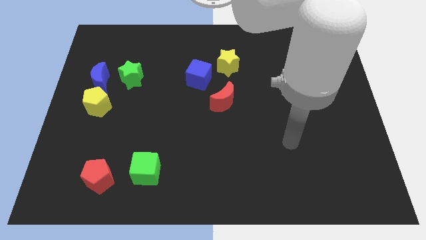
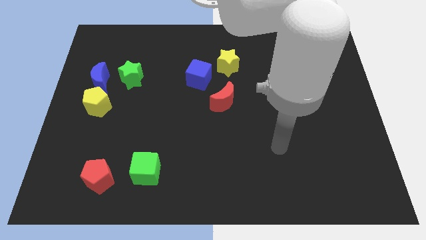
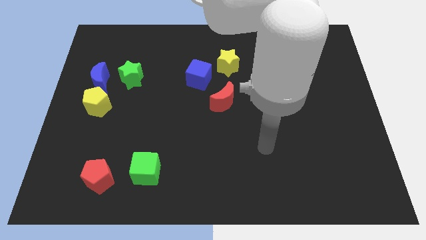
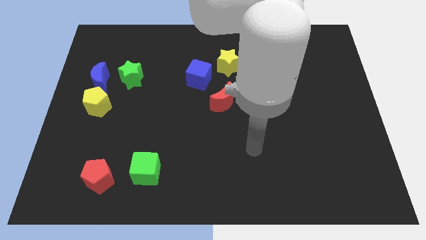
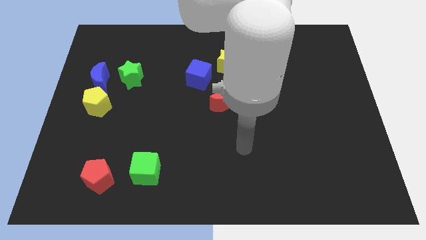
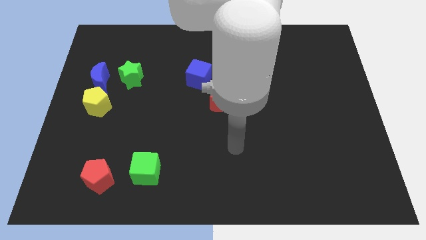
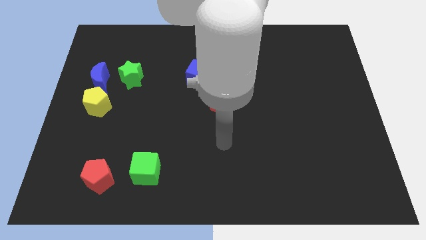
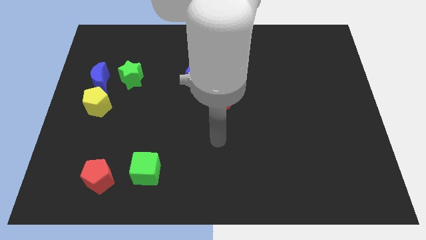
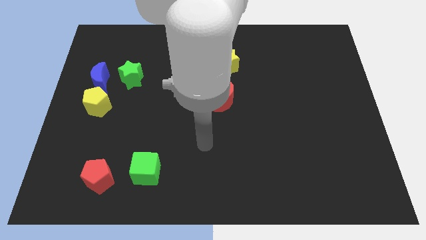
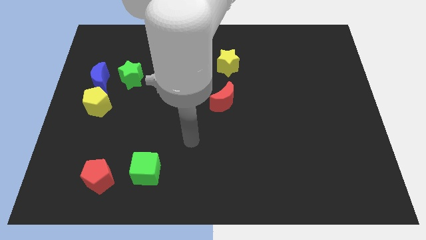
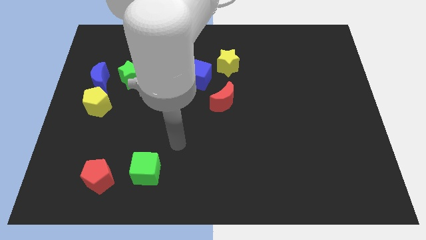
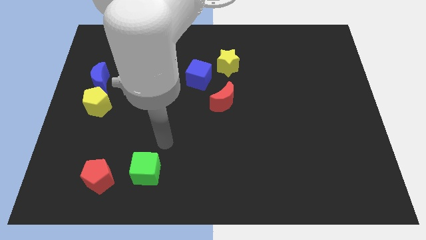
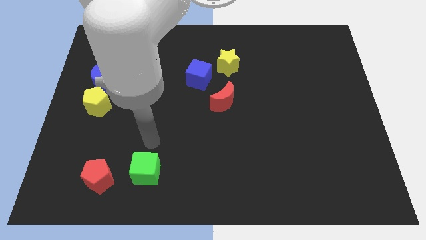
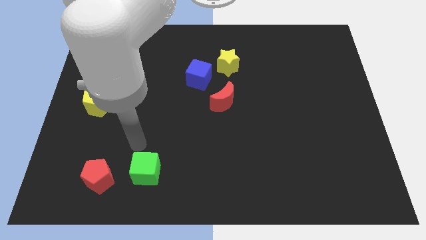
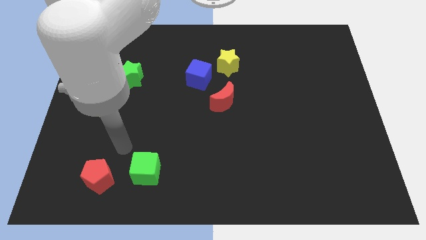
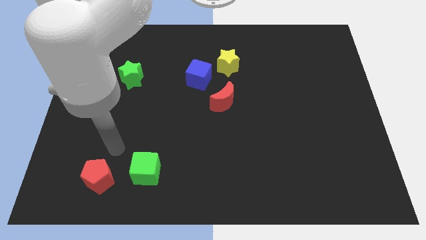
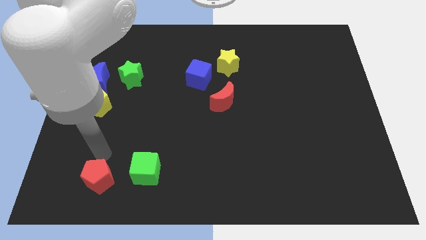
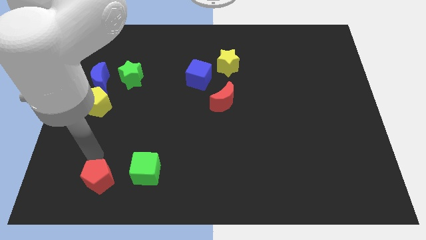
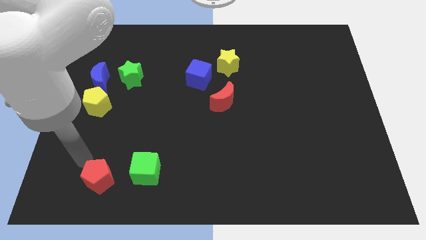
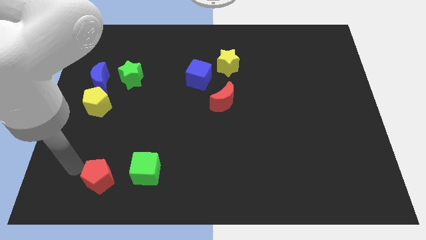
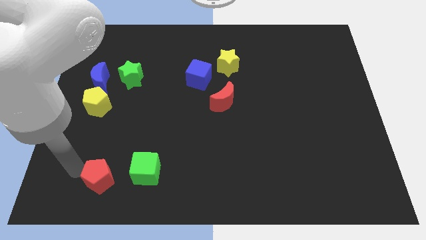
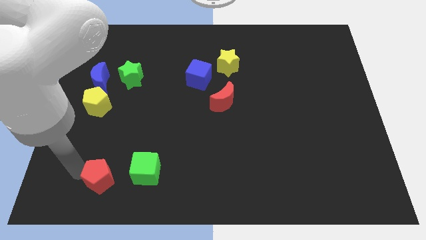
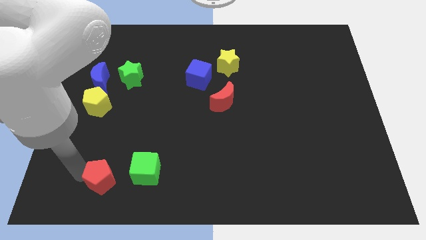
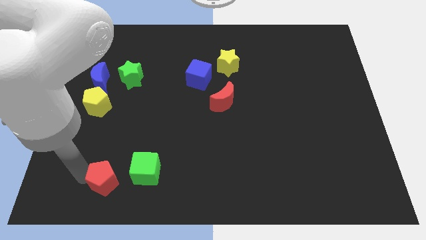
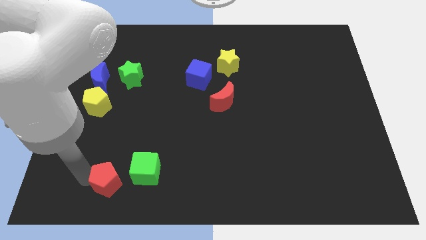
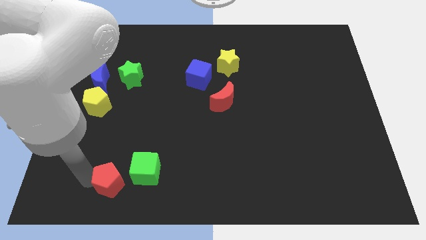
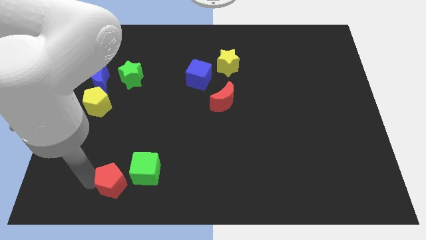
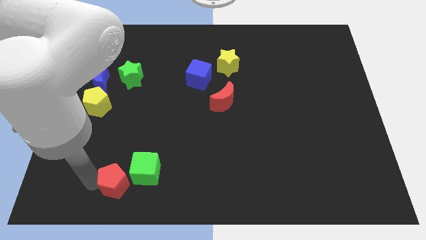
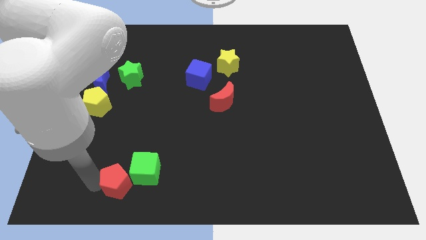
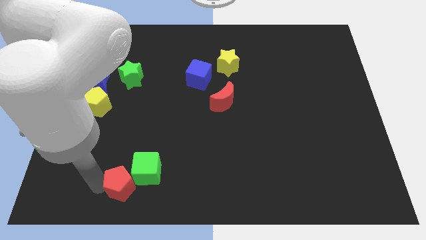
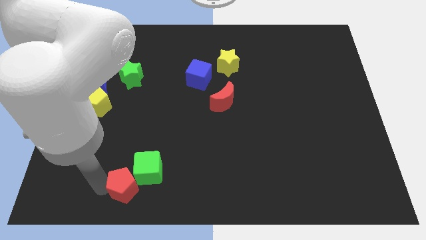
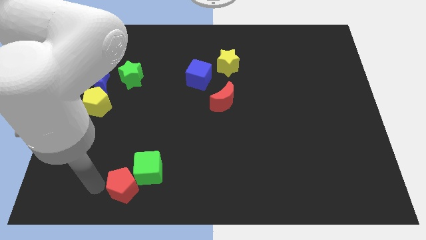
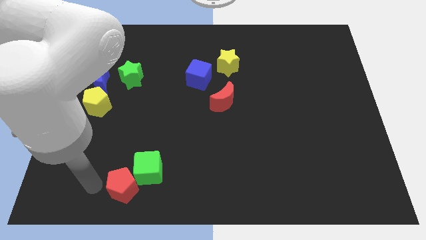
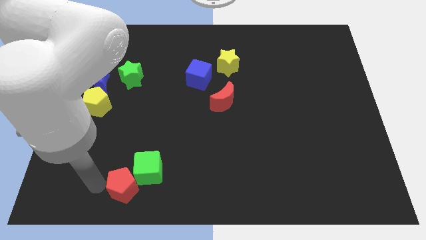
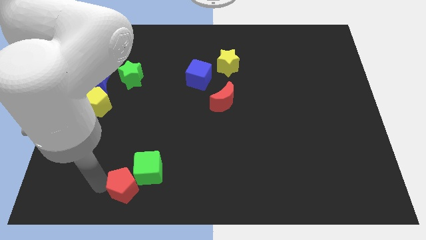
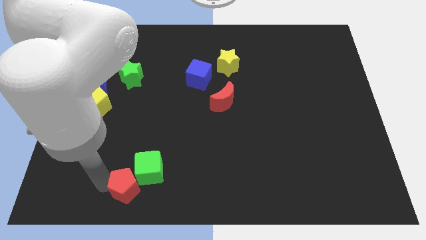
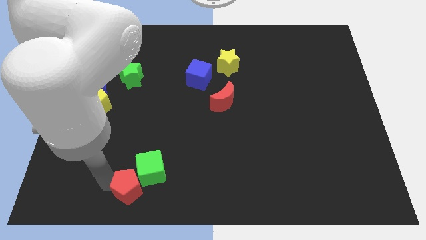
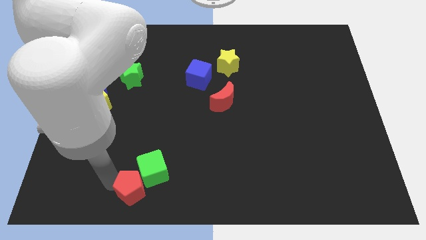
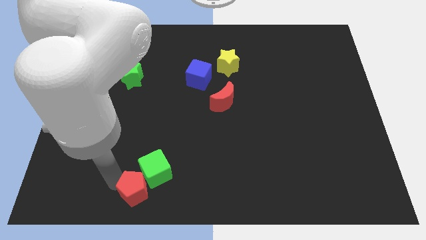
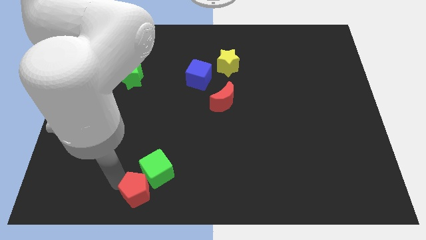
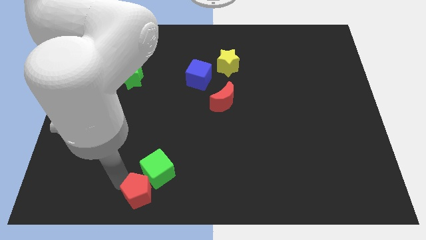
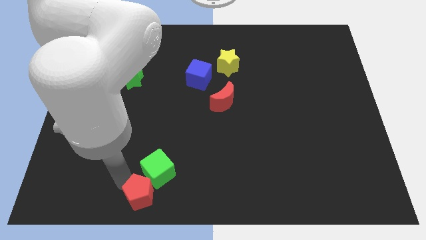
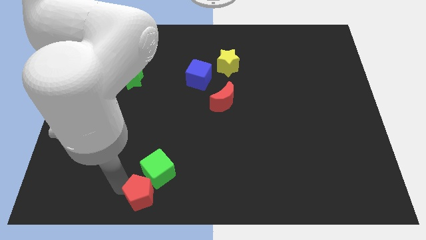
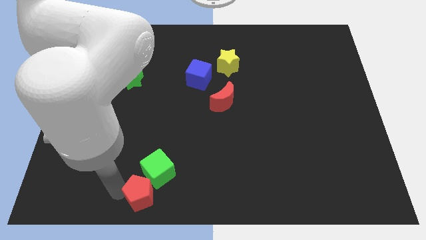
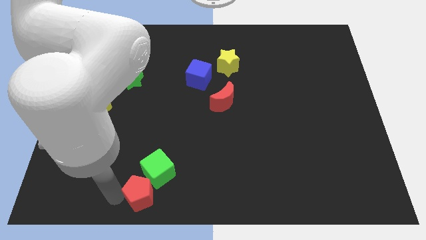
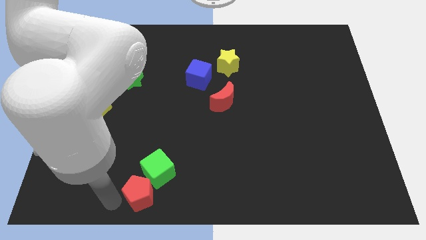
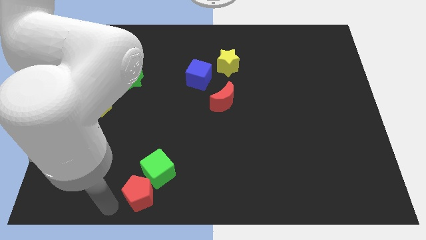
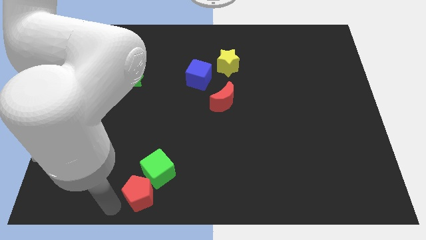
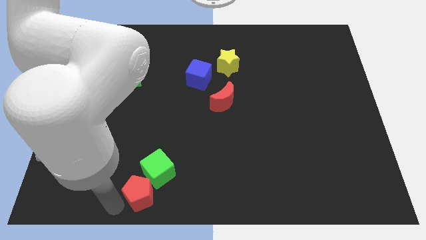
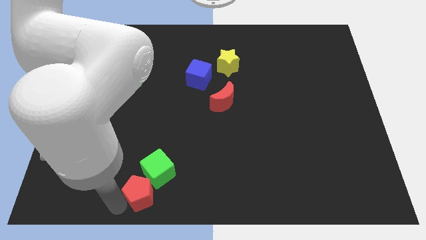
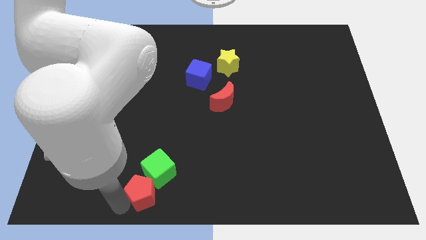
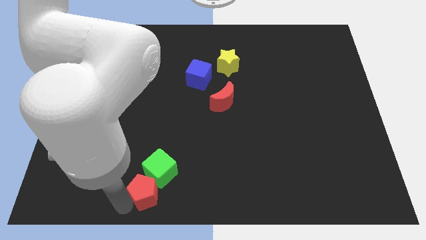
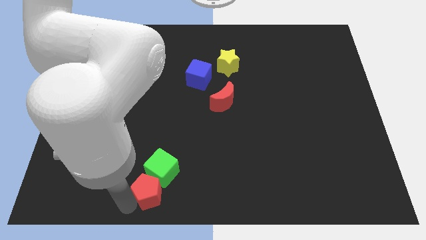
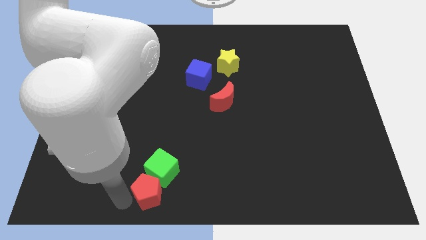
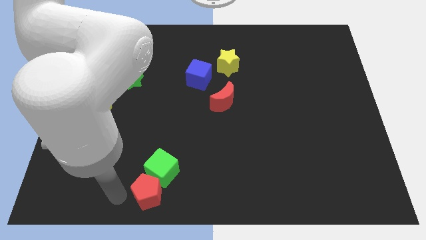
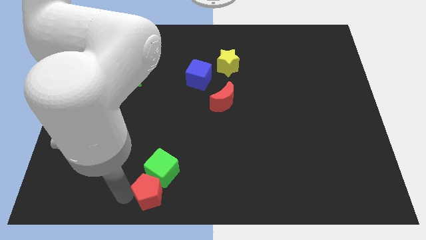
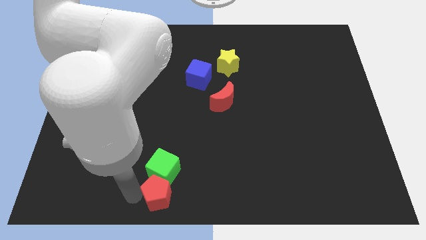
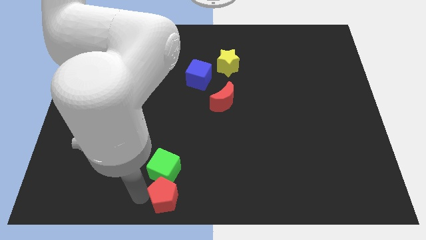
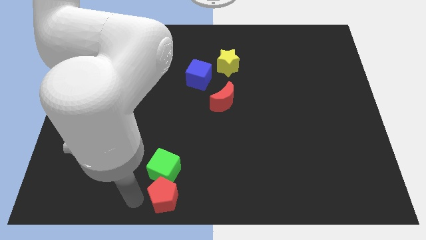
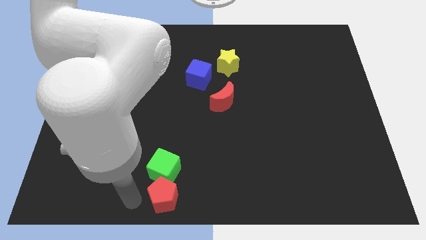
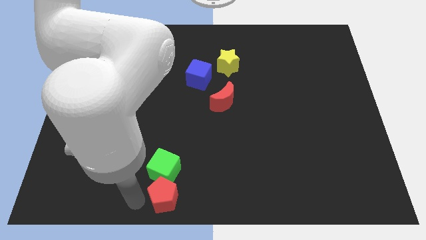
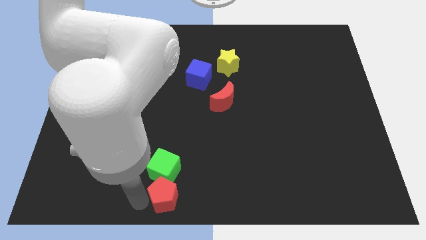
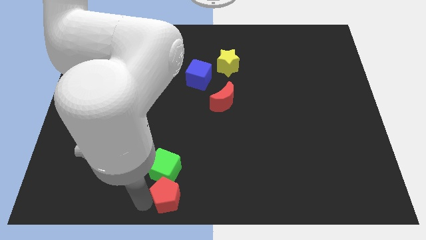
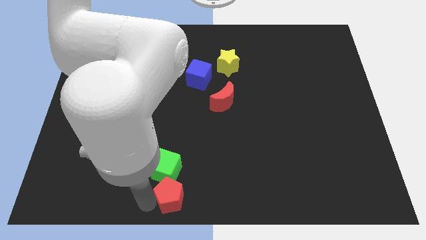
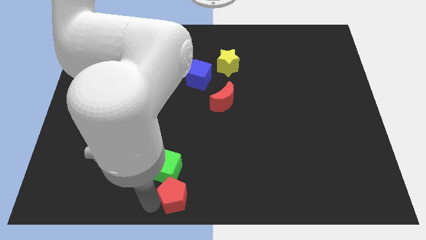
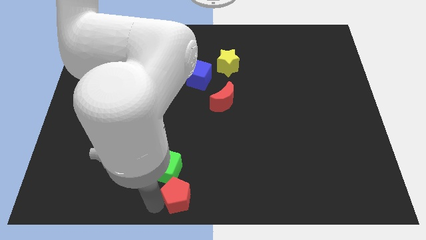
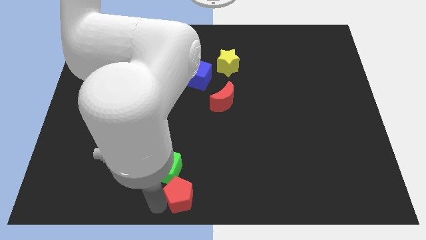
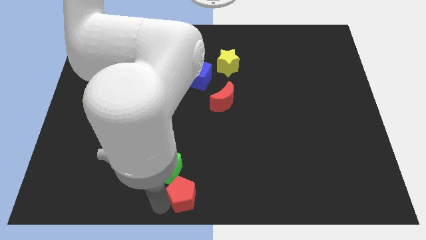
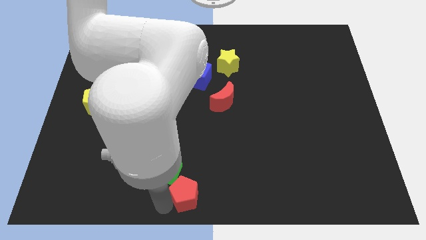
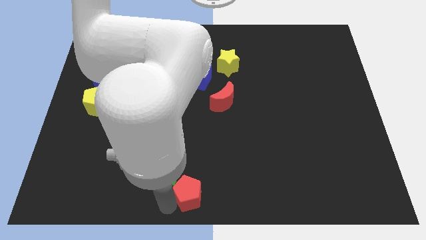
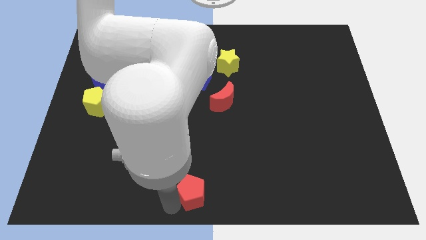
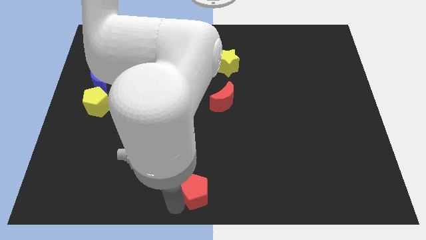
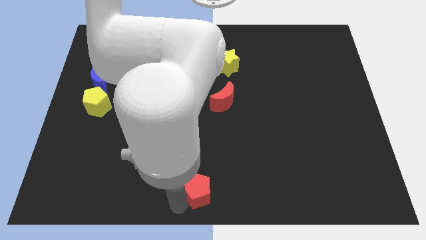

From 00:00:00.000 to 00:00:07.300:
slide the red pentagon to the right

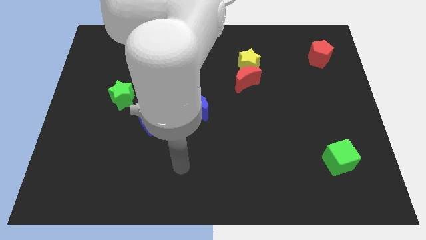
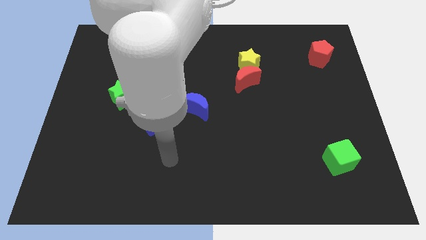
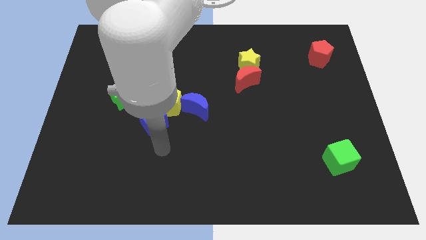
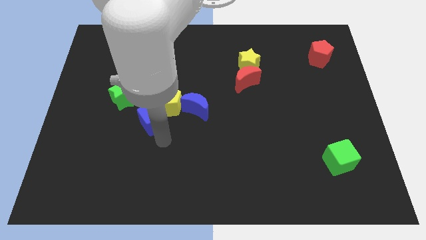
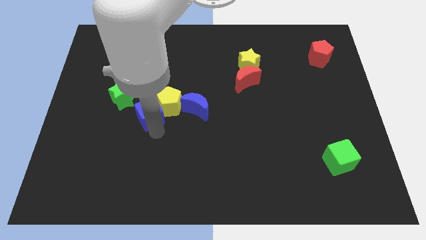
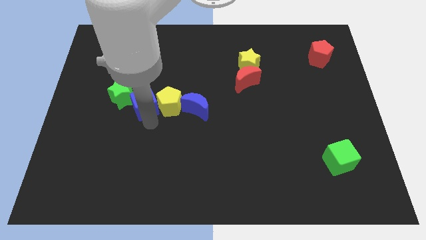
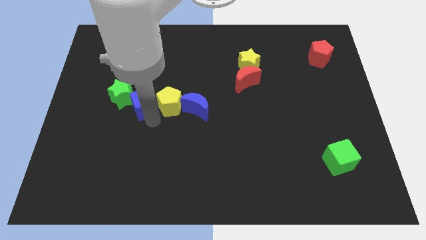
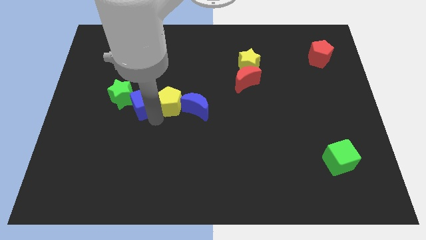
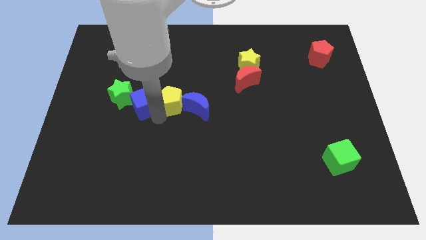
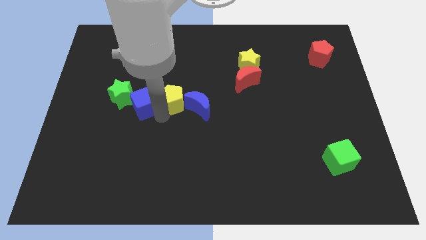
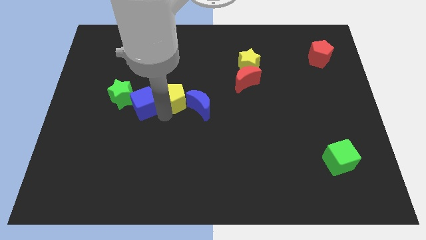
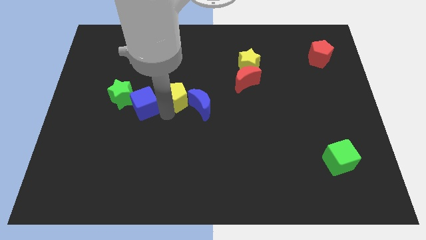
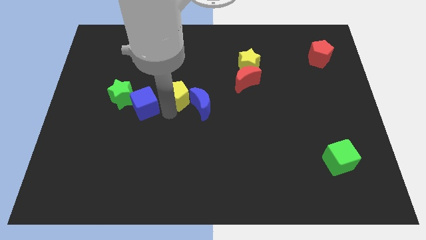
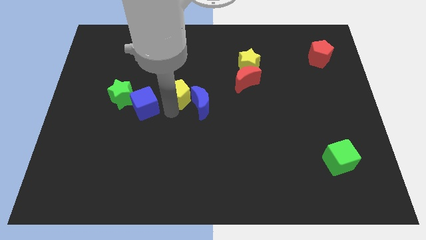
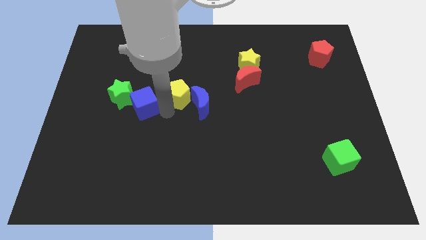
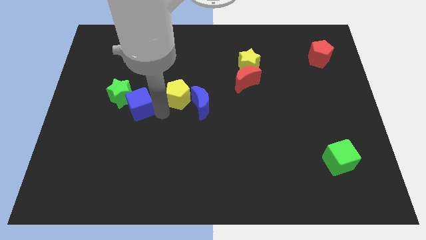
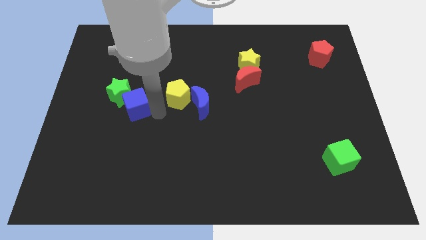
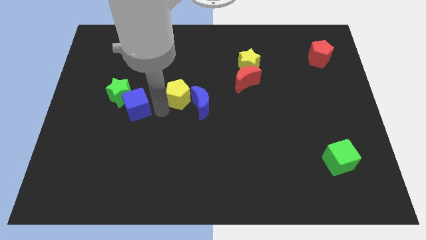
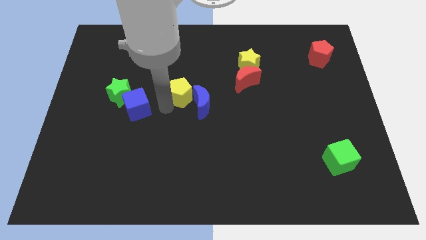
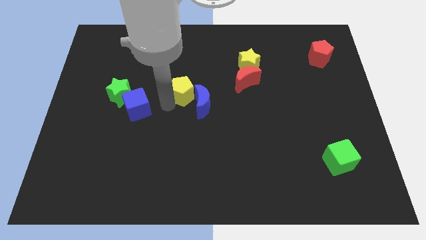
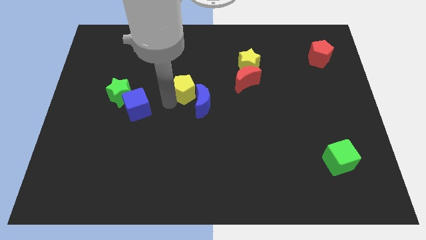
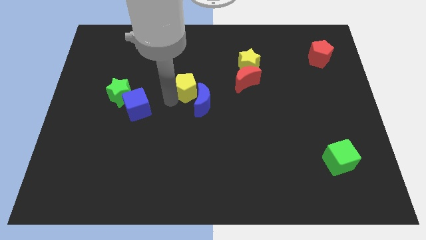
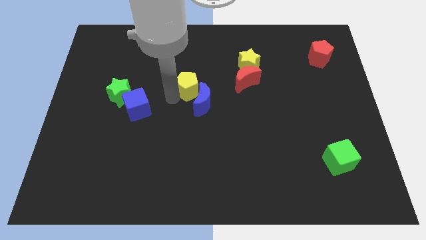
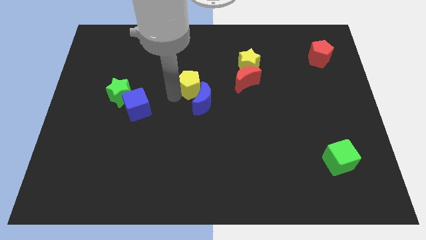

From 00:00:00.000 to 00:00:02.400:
slightly move the yellow pentagon up and right
